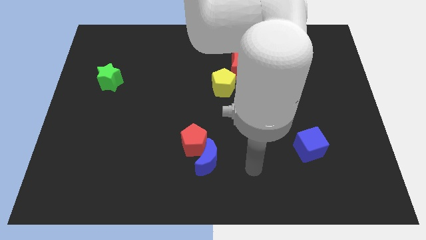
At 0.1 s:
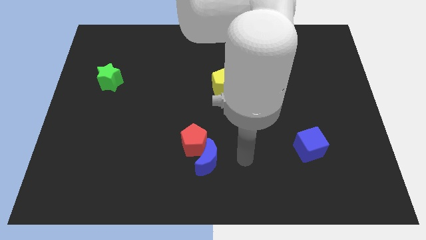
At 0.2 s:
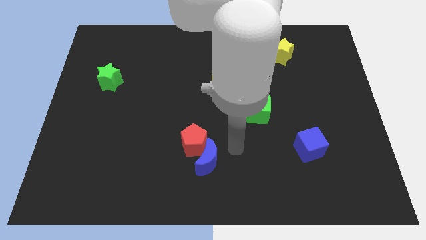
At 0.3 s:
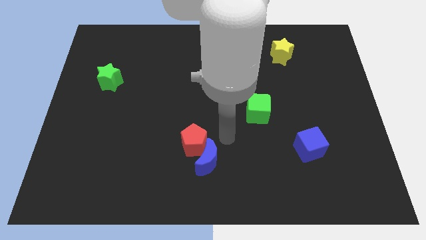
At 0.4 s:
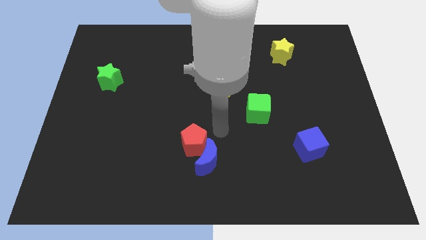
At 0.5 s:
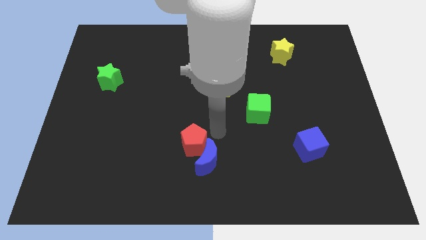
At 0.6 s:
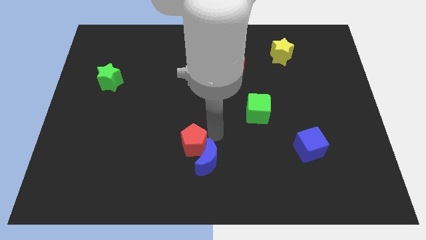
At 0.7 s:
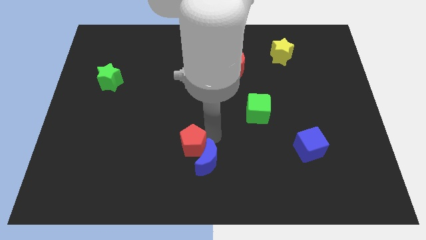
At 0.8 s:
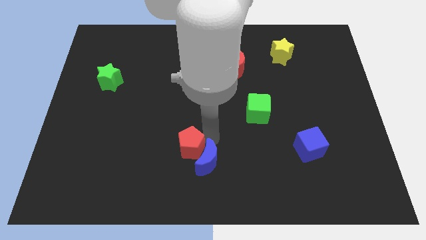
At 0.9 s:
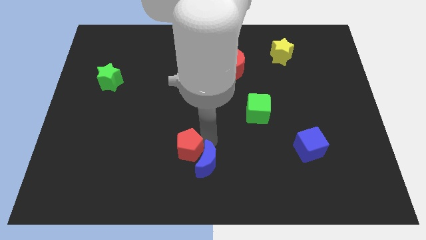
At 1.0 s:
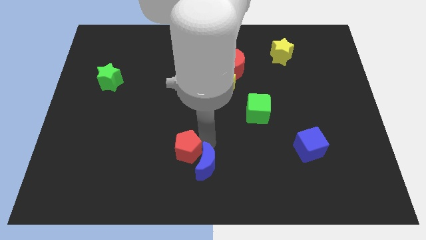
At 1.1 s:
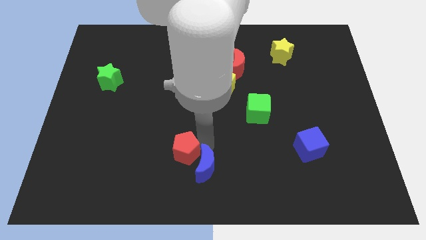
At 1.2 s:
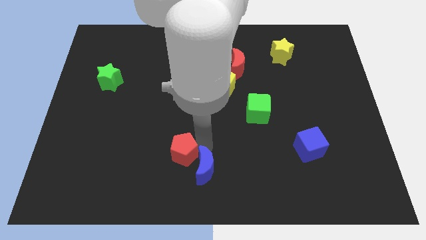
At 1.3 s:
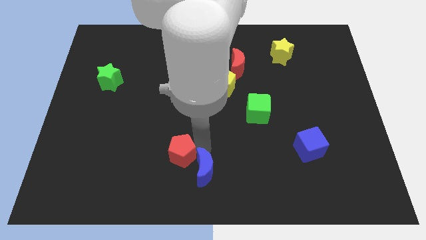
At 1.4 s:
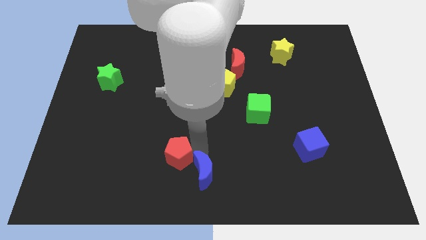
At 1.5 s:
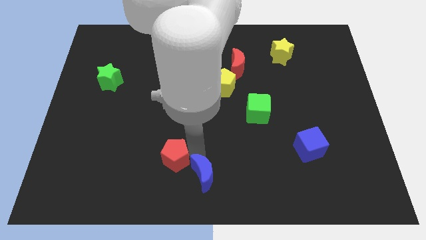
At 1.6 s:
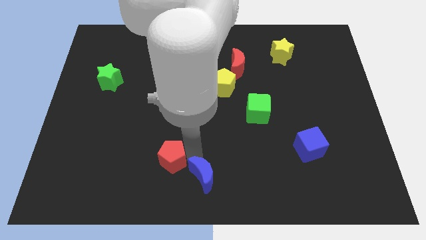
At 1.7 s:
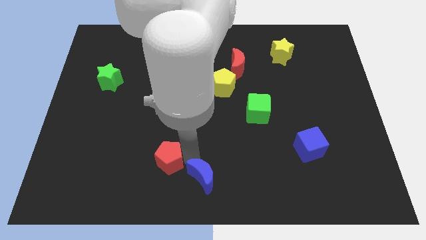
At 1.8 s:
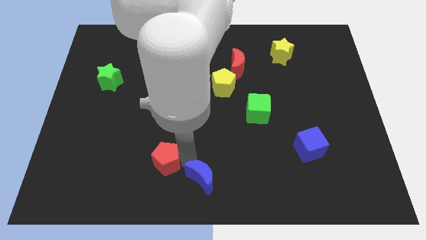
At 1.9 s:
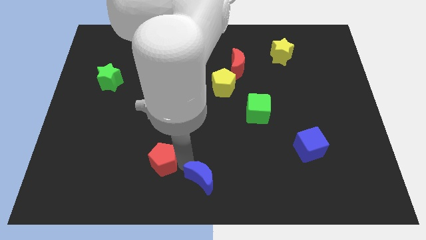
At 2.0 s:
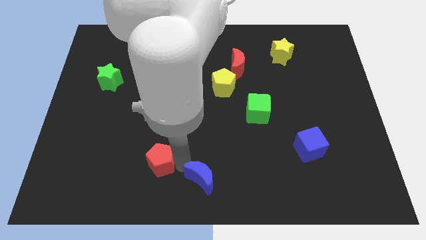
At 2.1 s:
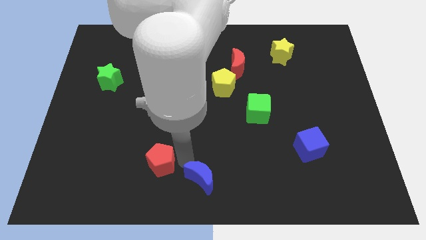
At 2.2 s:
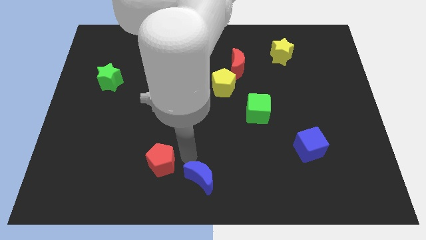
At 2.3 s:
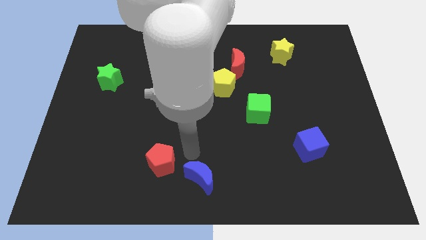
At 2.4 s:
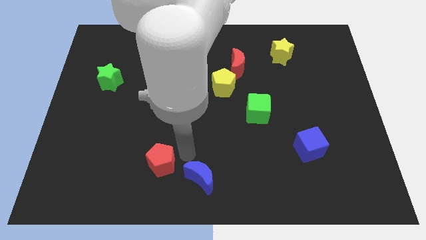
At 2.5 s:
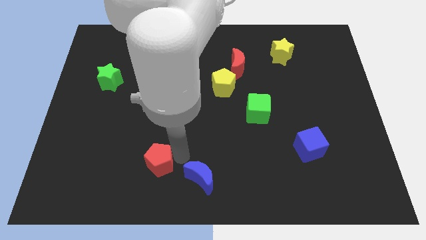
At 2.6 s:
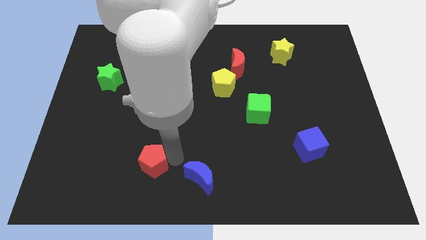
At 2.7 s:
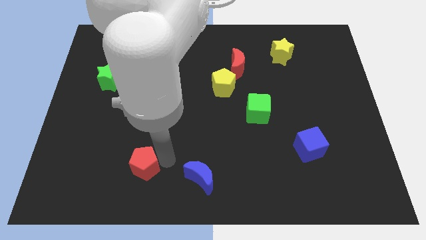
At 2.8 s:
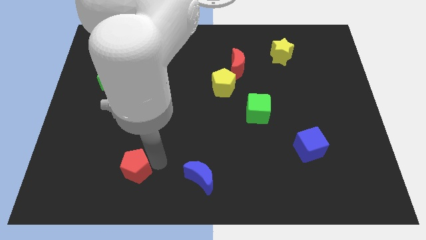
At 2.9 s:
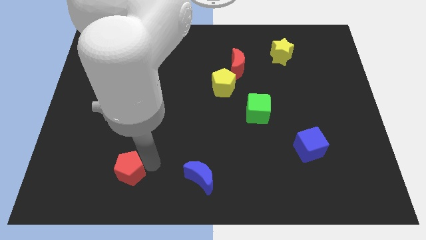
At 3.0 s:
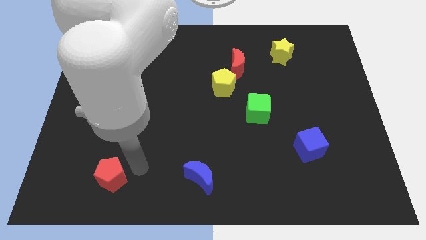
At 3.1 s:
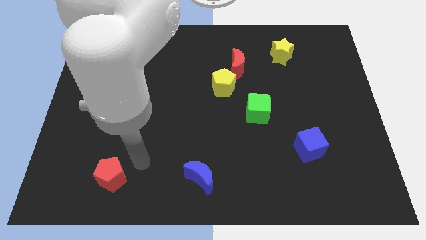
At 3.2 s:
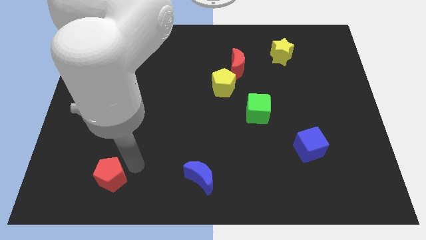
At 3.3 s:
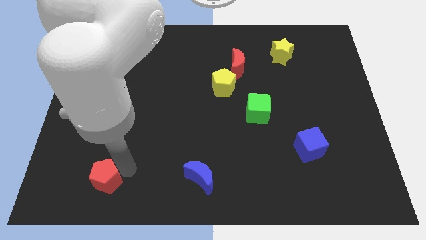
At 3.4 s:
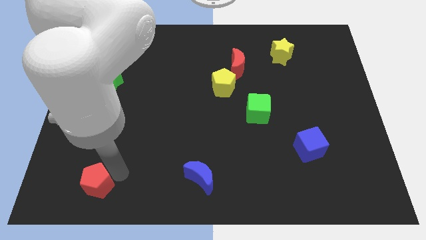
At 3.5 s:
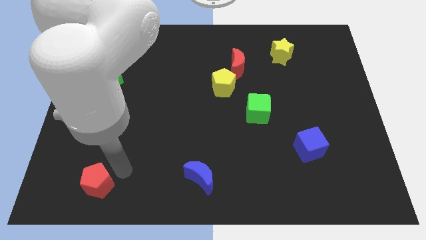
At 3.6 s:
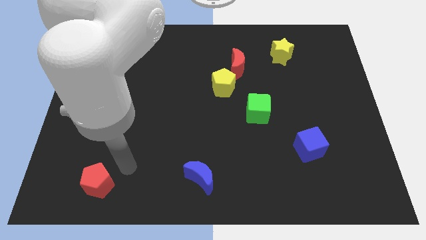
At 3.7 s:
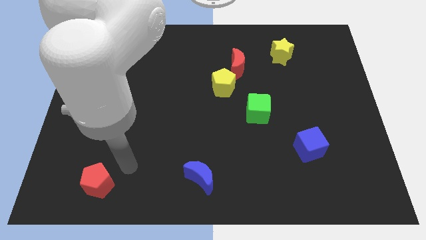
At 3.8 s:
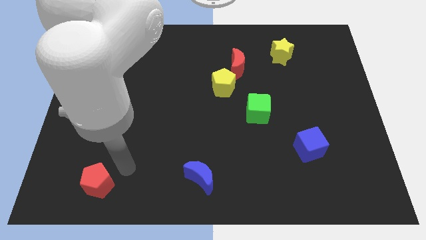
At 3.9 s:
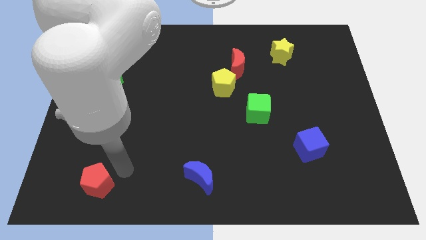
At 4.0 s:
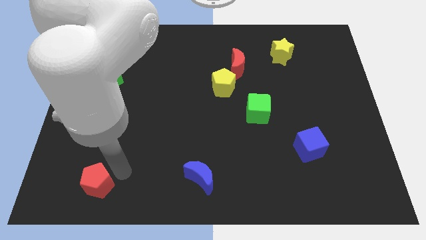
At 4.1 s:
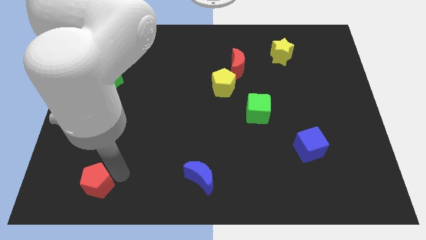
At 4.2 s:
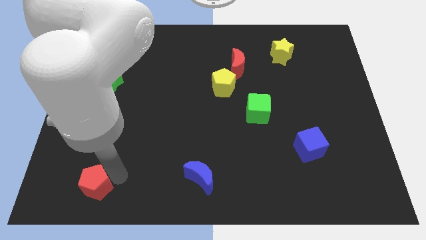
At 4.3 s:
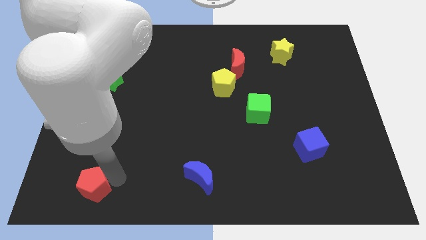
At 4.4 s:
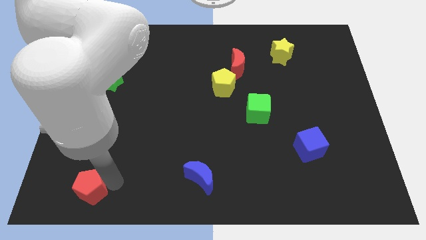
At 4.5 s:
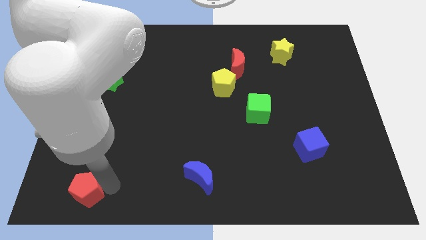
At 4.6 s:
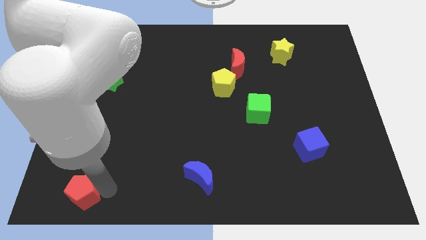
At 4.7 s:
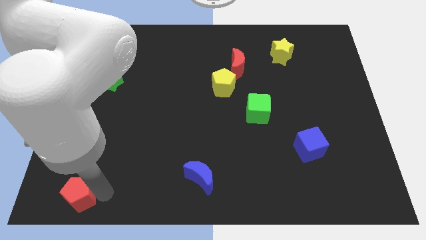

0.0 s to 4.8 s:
slide the red pentagon to the bottom left of the board

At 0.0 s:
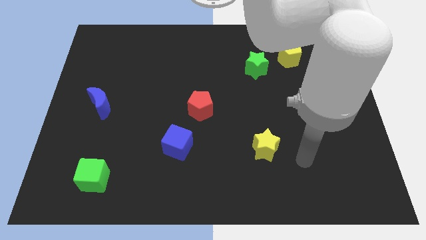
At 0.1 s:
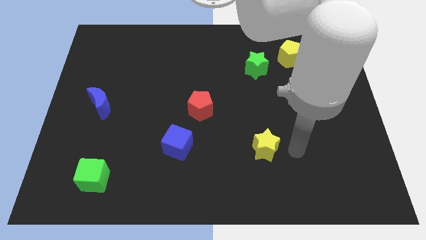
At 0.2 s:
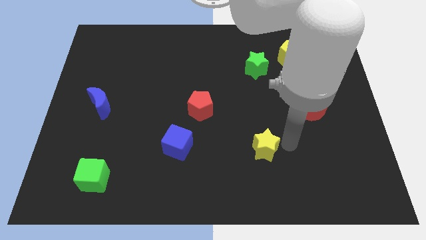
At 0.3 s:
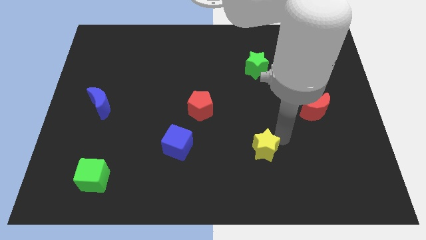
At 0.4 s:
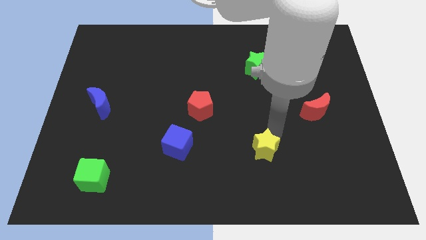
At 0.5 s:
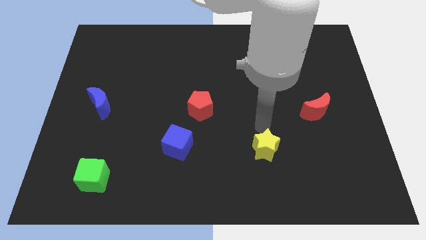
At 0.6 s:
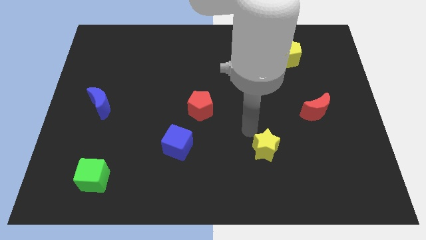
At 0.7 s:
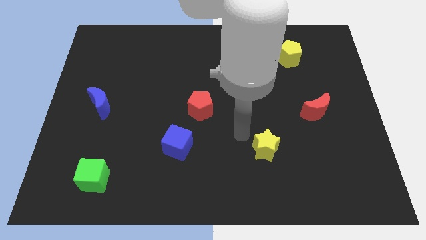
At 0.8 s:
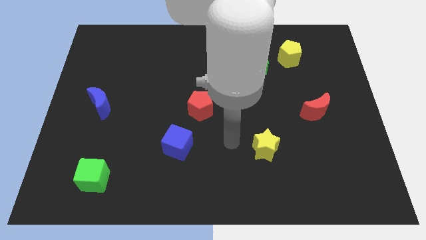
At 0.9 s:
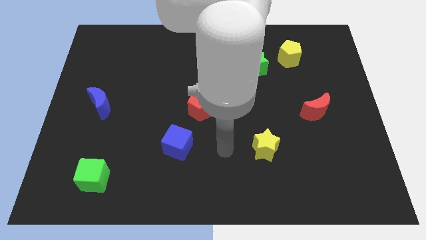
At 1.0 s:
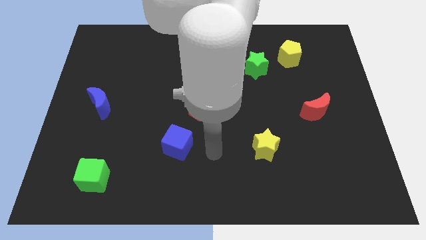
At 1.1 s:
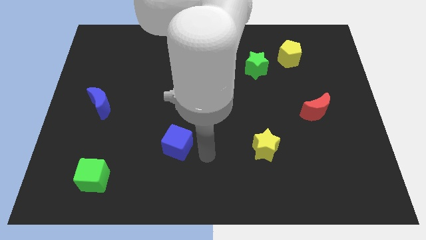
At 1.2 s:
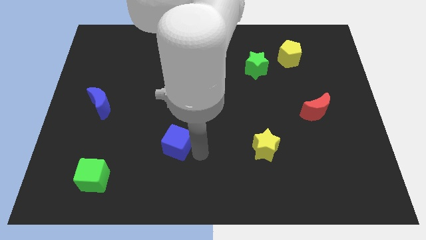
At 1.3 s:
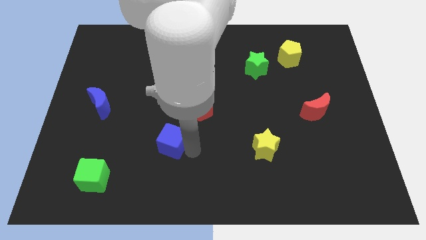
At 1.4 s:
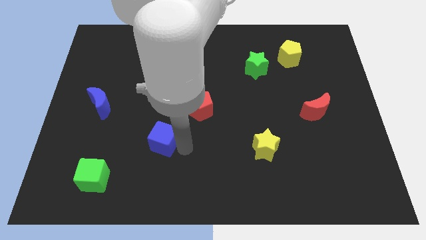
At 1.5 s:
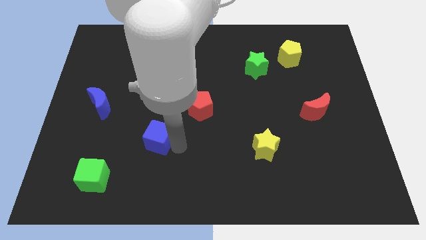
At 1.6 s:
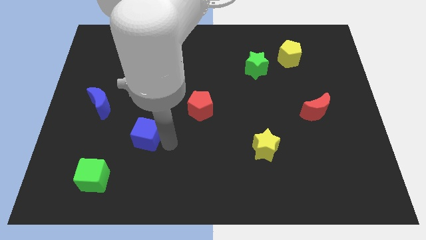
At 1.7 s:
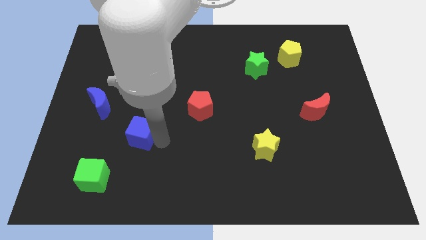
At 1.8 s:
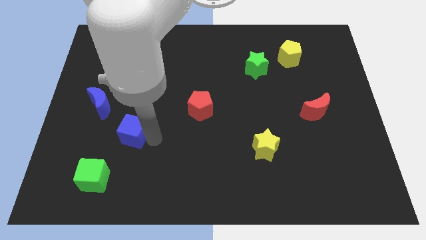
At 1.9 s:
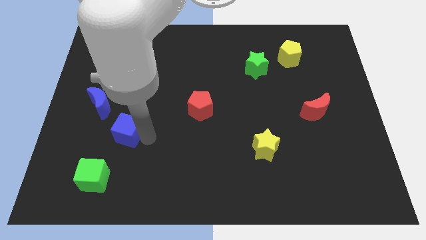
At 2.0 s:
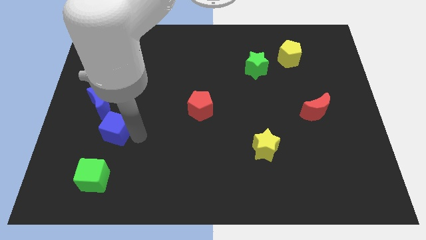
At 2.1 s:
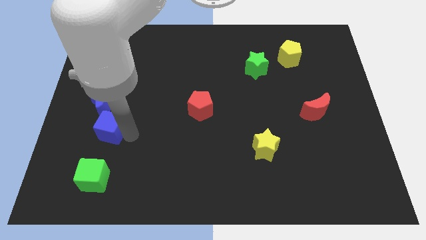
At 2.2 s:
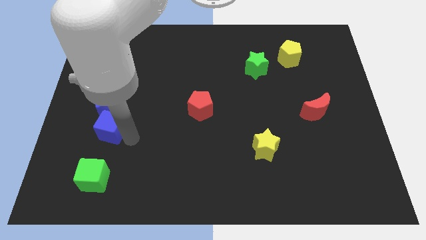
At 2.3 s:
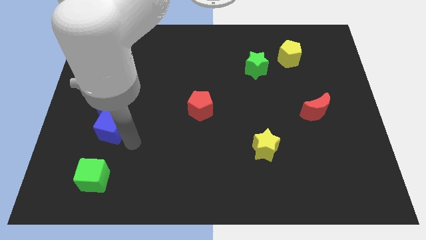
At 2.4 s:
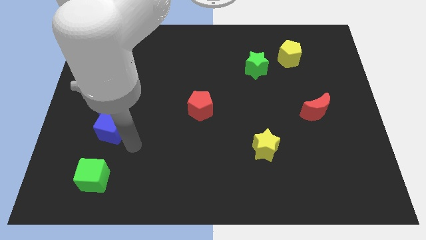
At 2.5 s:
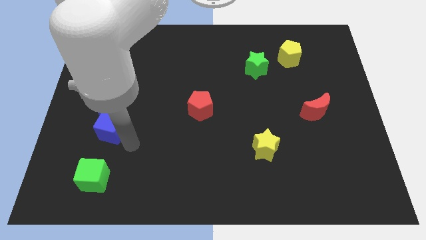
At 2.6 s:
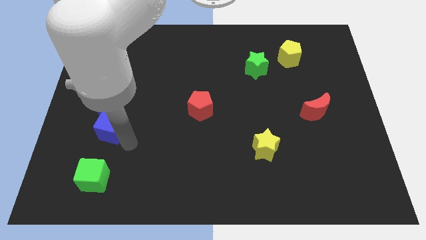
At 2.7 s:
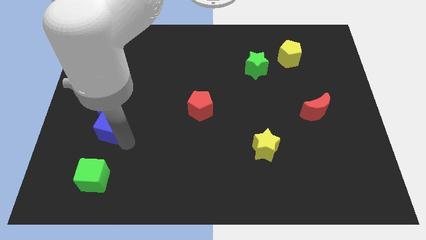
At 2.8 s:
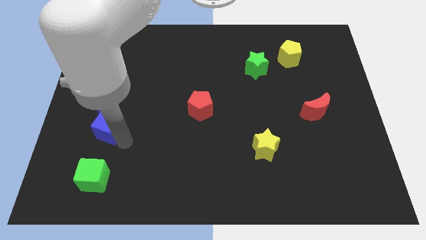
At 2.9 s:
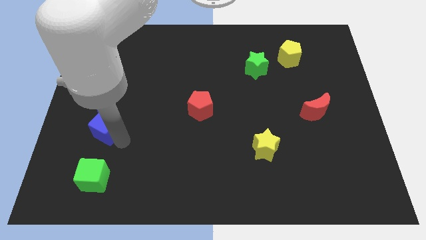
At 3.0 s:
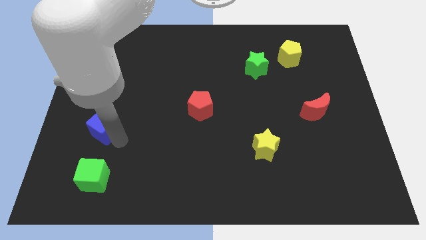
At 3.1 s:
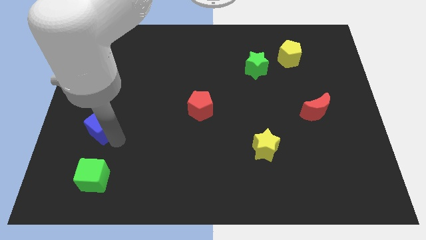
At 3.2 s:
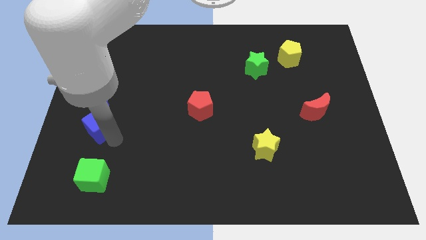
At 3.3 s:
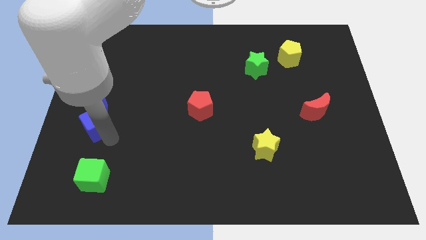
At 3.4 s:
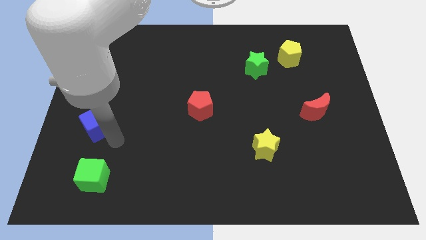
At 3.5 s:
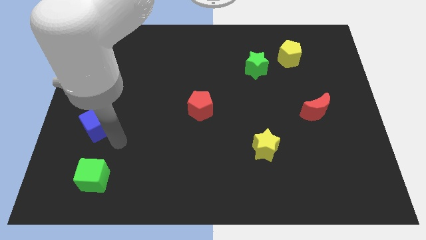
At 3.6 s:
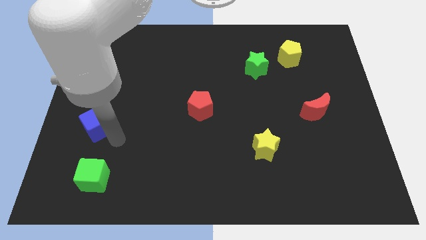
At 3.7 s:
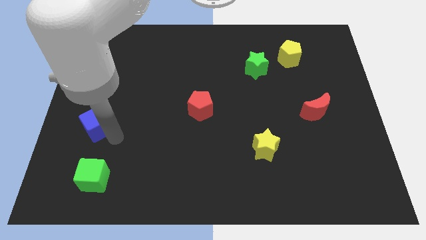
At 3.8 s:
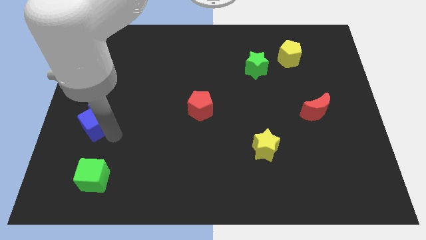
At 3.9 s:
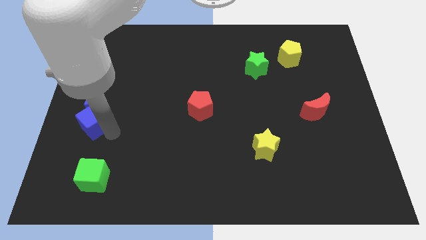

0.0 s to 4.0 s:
move the blue cube to the center left
